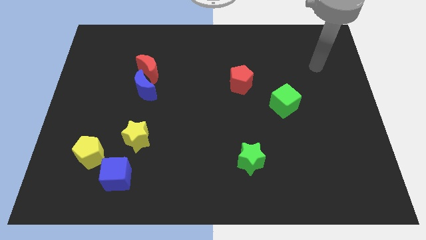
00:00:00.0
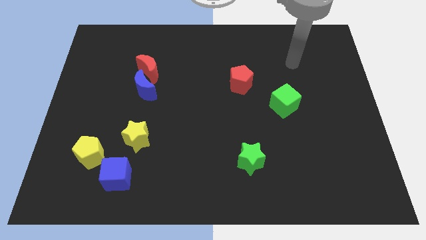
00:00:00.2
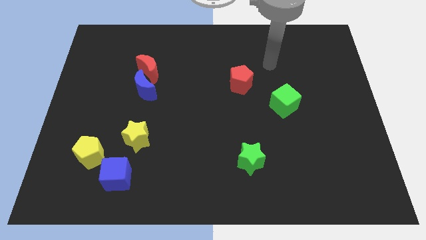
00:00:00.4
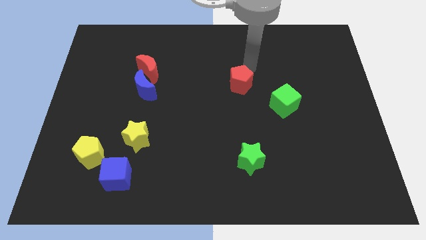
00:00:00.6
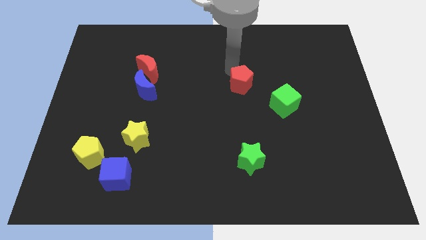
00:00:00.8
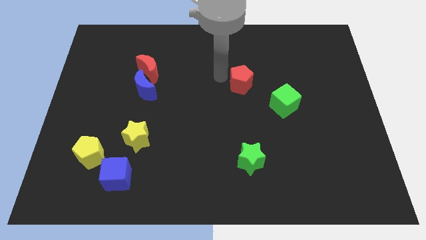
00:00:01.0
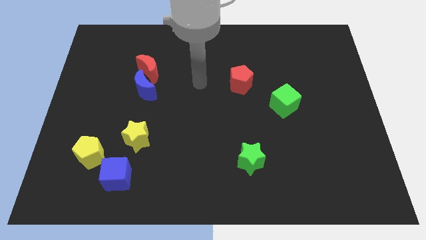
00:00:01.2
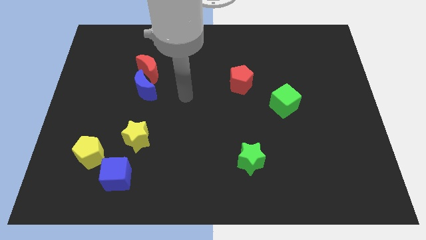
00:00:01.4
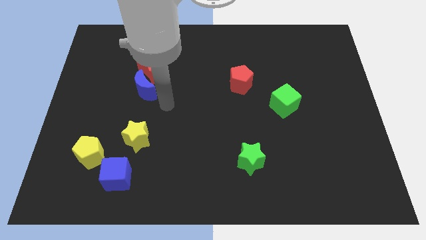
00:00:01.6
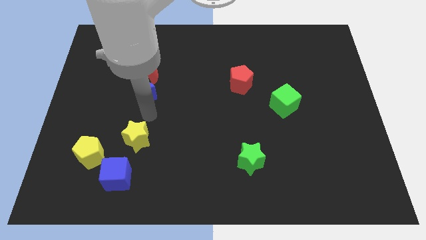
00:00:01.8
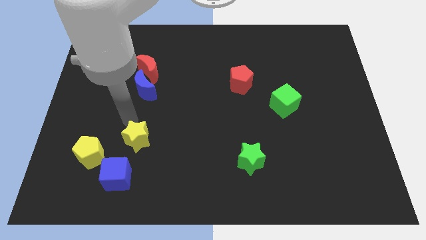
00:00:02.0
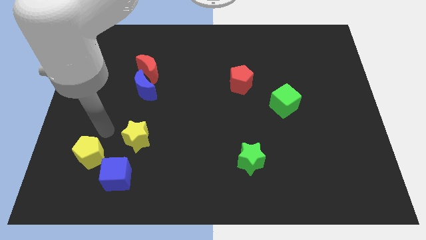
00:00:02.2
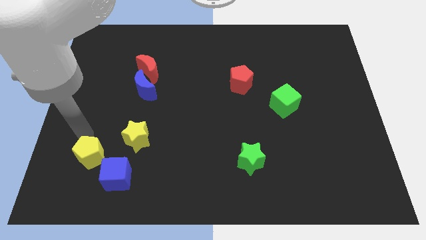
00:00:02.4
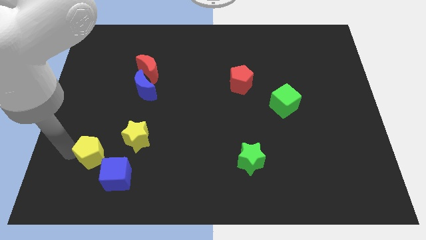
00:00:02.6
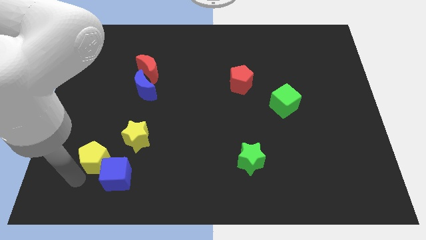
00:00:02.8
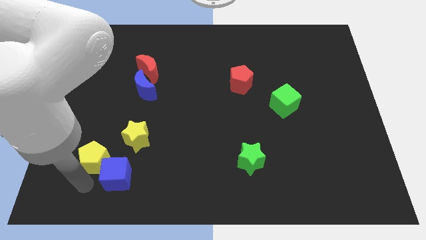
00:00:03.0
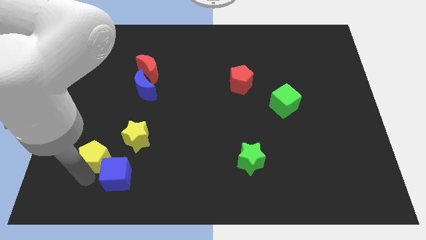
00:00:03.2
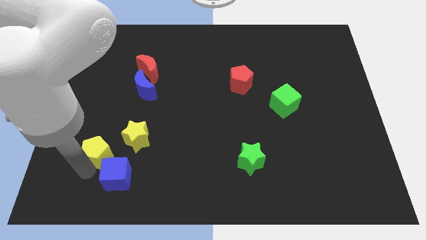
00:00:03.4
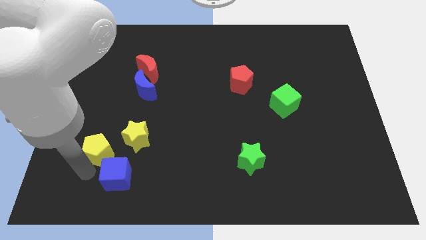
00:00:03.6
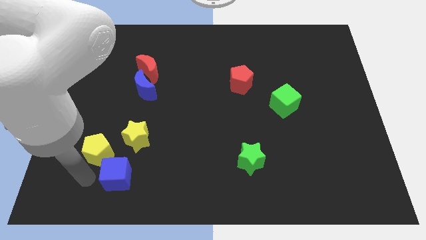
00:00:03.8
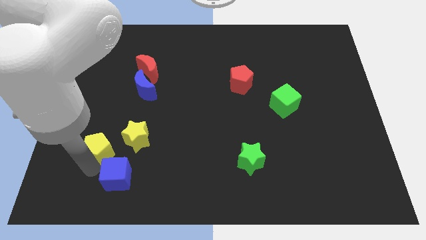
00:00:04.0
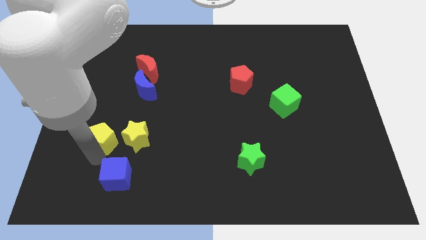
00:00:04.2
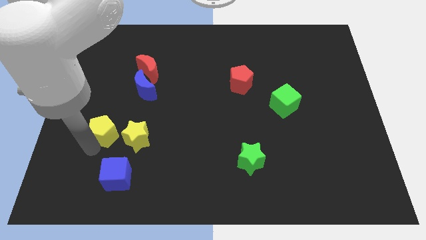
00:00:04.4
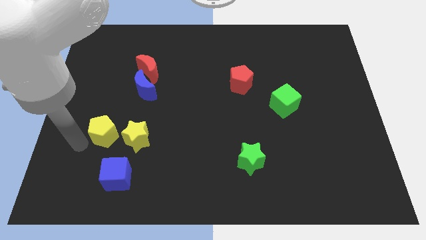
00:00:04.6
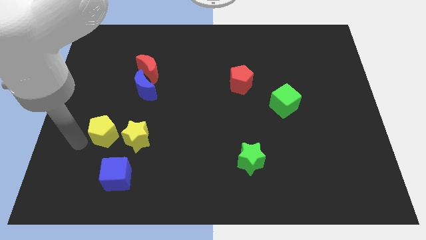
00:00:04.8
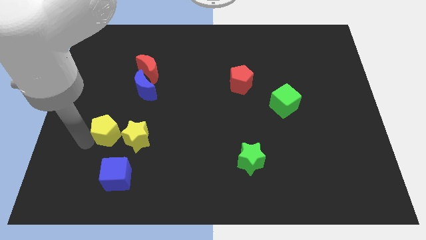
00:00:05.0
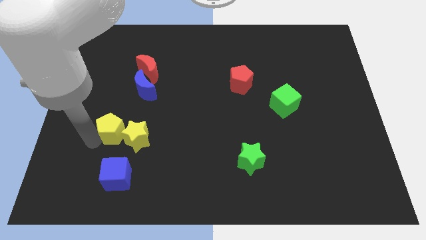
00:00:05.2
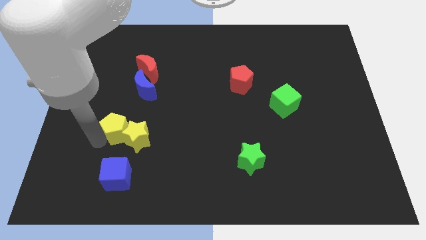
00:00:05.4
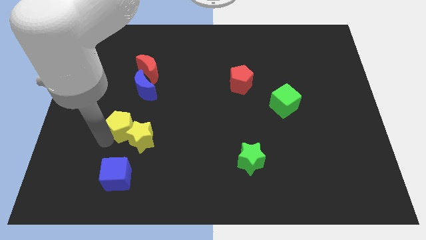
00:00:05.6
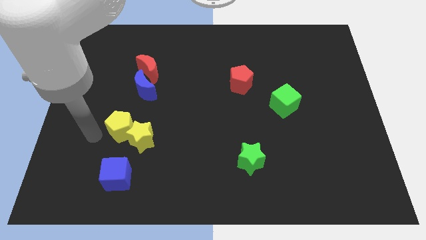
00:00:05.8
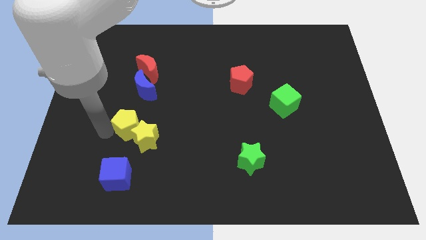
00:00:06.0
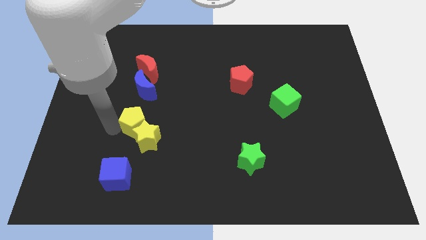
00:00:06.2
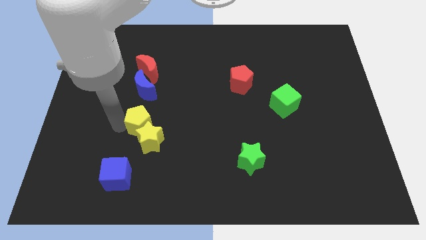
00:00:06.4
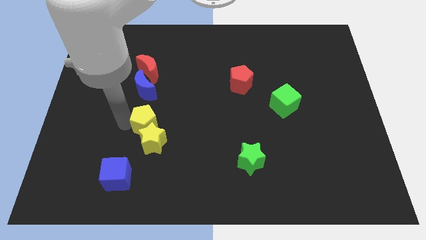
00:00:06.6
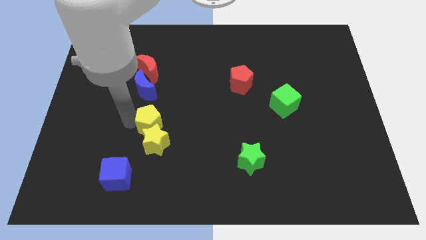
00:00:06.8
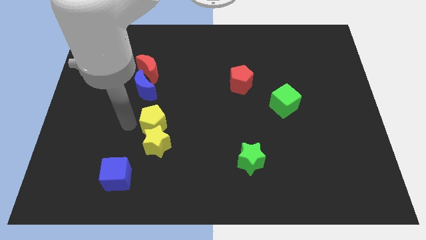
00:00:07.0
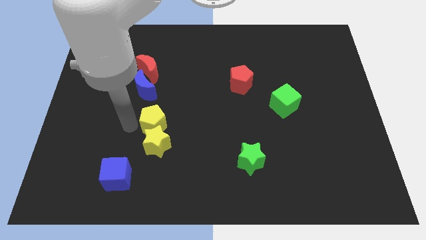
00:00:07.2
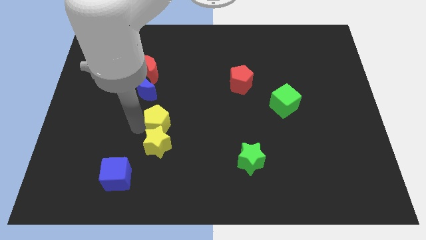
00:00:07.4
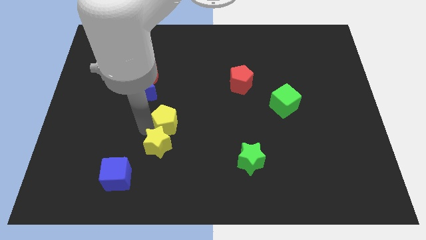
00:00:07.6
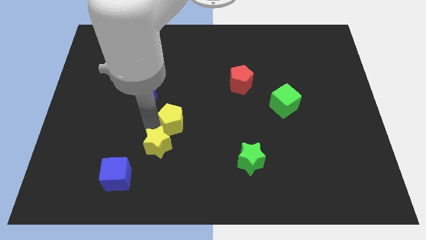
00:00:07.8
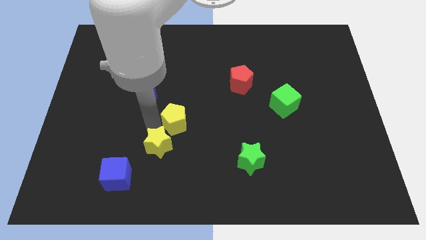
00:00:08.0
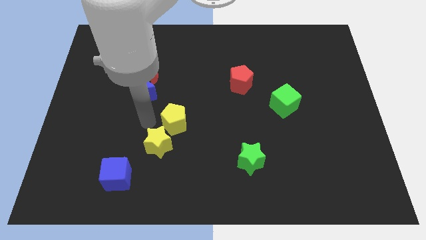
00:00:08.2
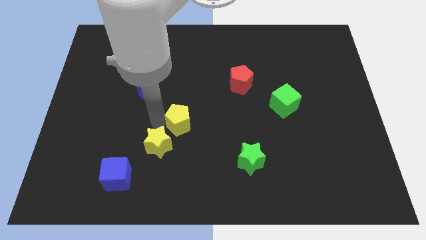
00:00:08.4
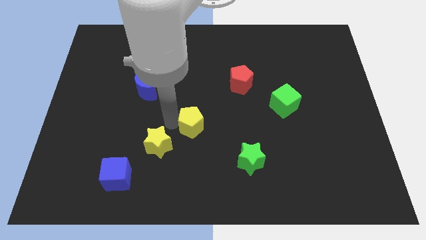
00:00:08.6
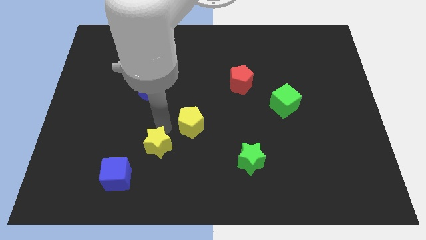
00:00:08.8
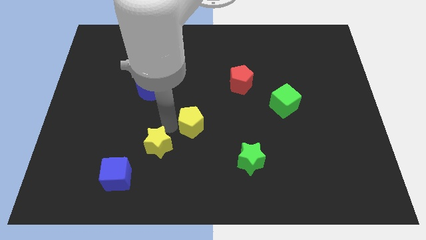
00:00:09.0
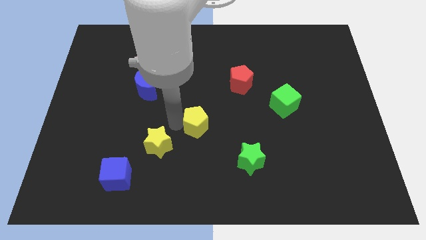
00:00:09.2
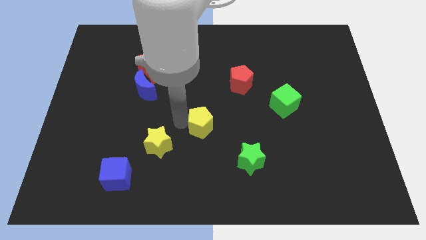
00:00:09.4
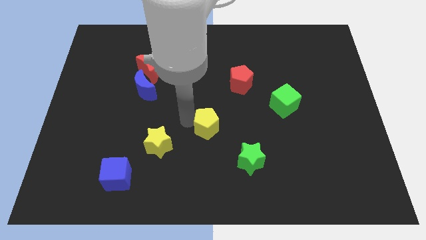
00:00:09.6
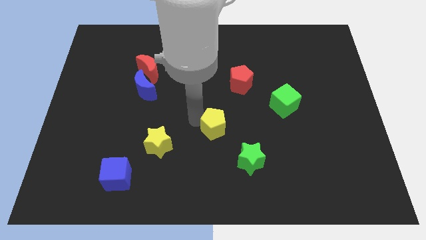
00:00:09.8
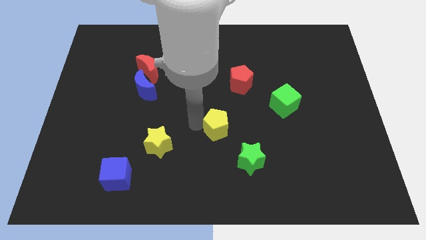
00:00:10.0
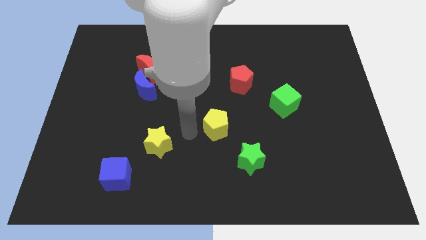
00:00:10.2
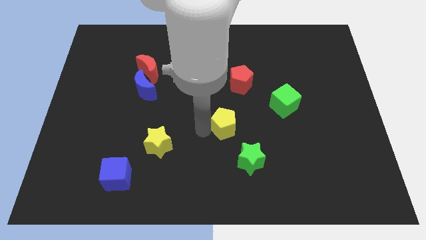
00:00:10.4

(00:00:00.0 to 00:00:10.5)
push the yellow pentagon to the top side of the green star

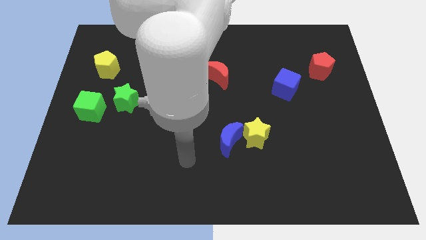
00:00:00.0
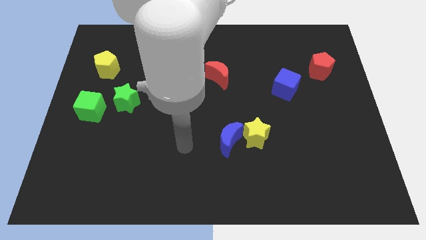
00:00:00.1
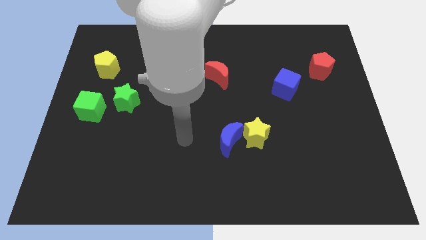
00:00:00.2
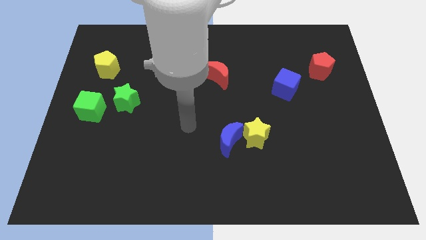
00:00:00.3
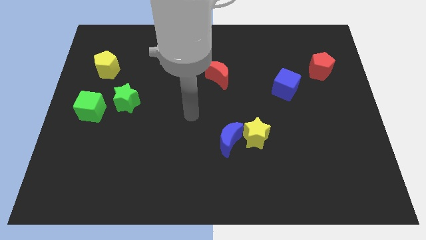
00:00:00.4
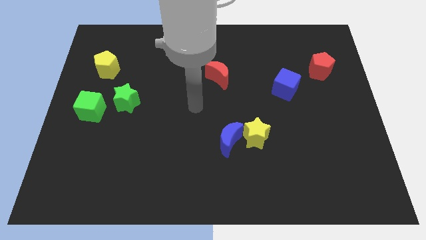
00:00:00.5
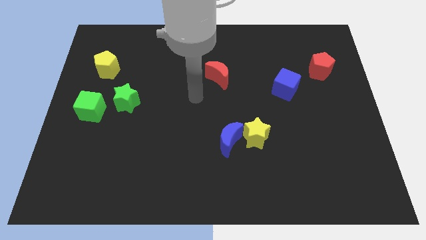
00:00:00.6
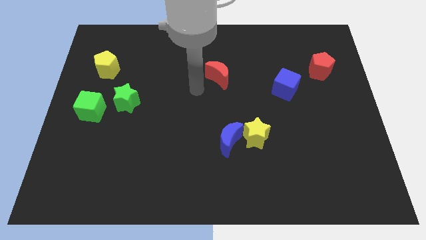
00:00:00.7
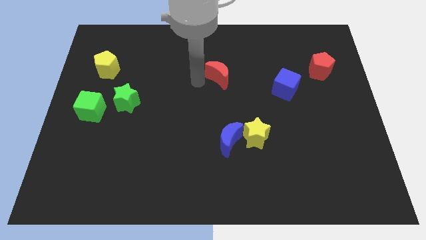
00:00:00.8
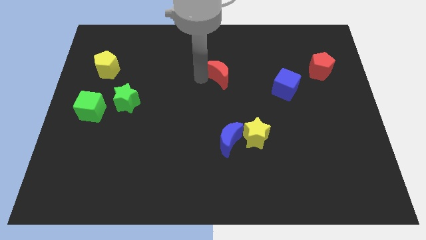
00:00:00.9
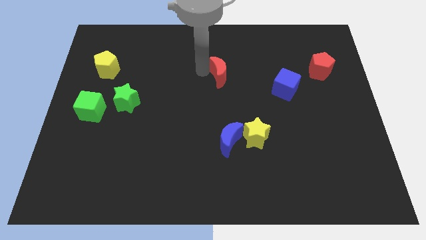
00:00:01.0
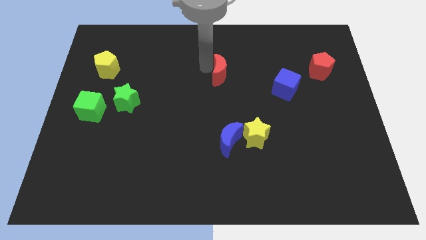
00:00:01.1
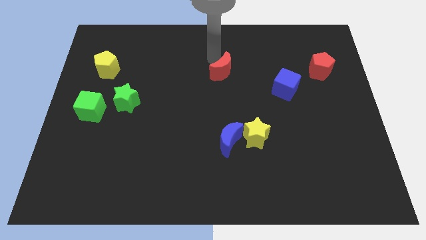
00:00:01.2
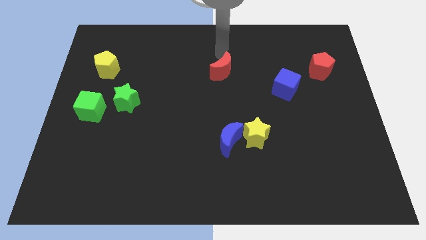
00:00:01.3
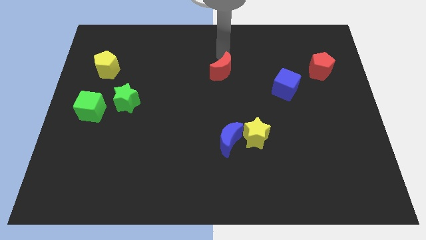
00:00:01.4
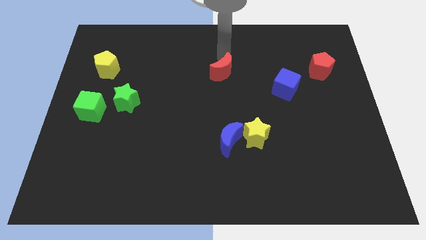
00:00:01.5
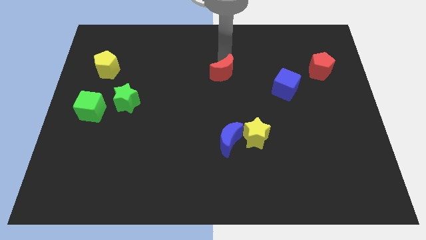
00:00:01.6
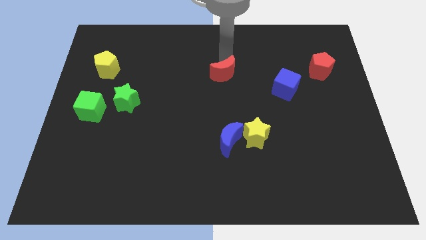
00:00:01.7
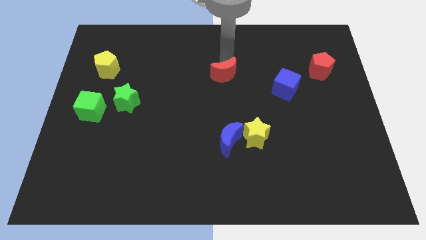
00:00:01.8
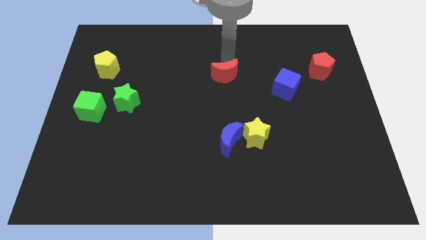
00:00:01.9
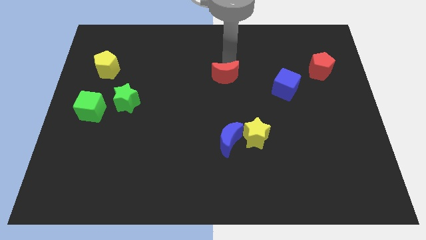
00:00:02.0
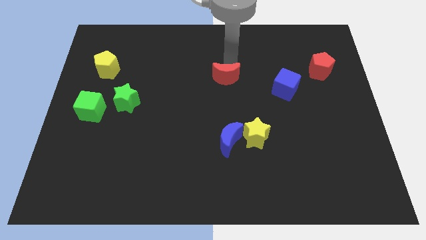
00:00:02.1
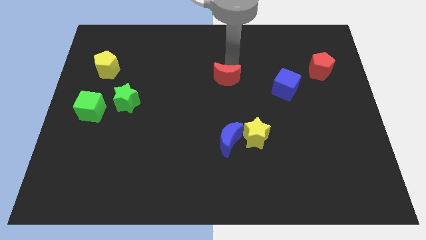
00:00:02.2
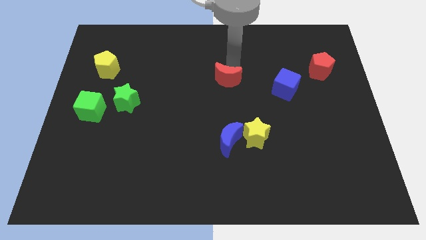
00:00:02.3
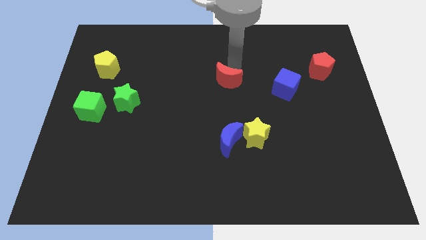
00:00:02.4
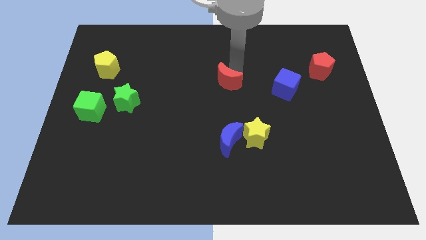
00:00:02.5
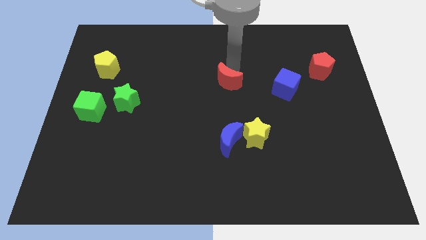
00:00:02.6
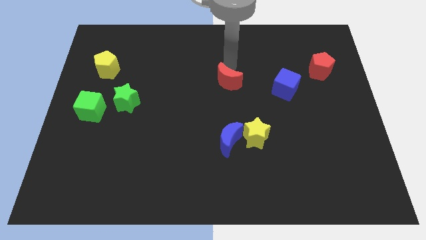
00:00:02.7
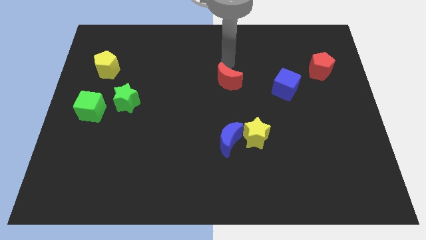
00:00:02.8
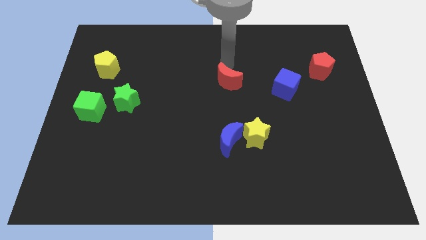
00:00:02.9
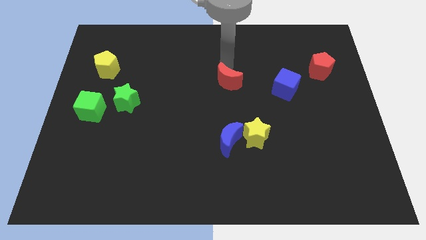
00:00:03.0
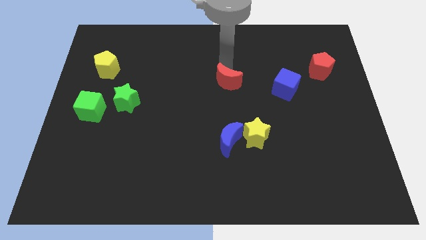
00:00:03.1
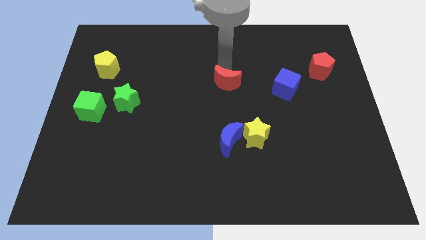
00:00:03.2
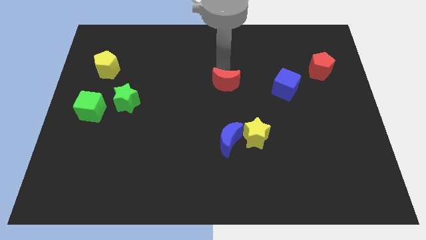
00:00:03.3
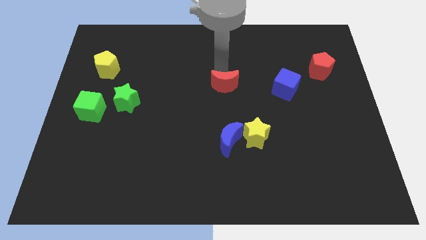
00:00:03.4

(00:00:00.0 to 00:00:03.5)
slide the red moon to the top side of the blue moon
